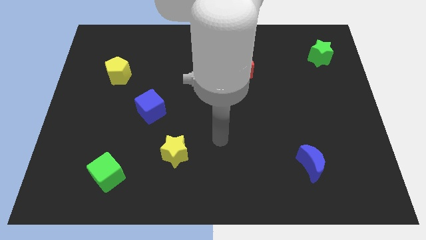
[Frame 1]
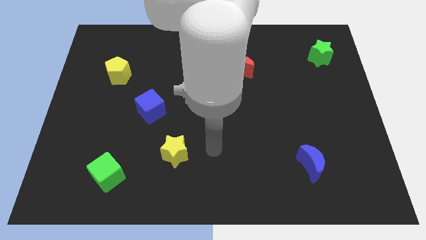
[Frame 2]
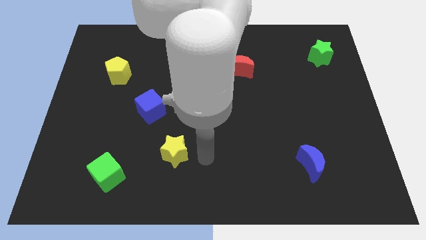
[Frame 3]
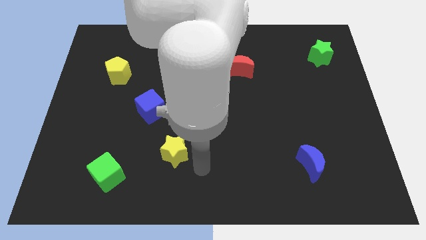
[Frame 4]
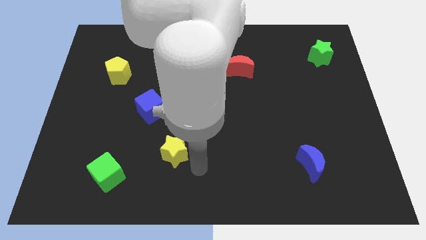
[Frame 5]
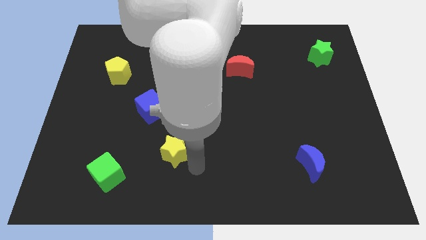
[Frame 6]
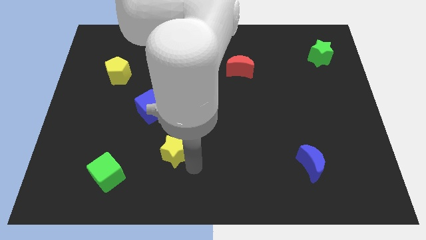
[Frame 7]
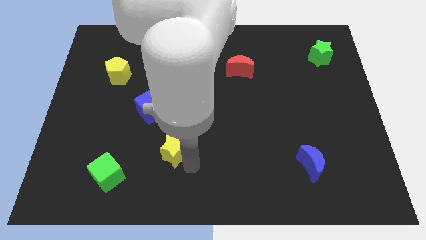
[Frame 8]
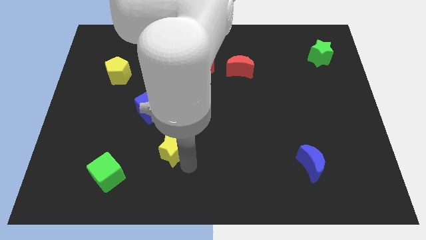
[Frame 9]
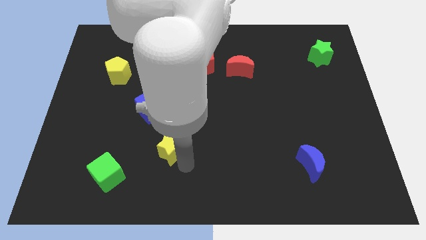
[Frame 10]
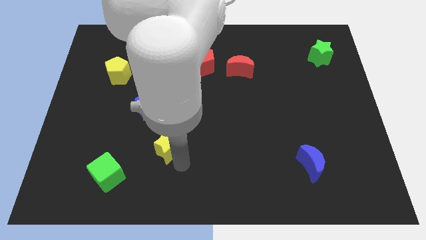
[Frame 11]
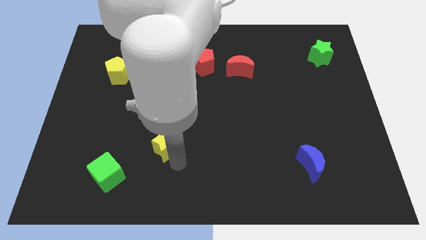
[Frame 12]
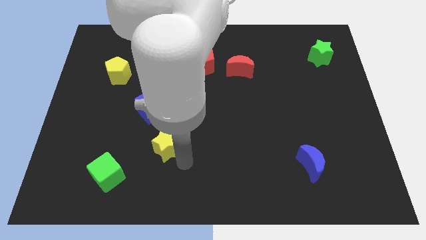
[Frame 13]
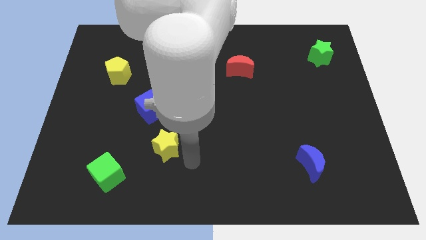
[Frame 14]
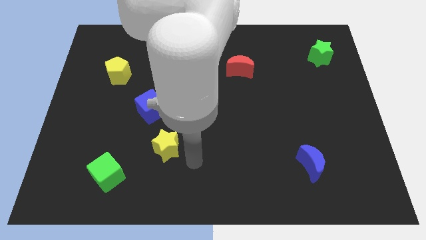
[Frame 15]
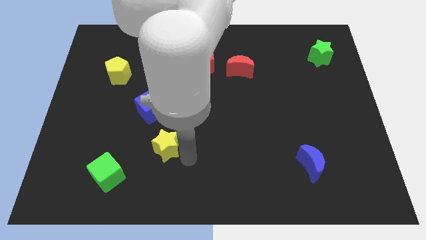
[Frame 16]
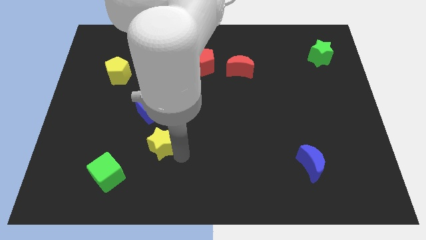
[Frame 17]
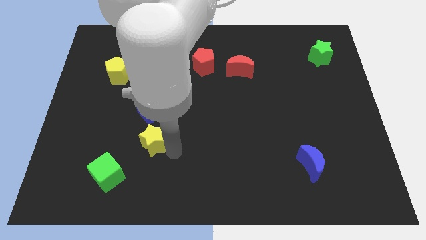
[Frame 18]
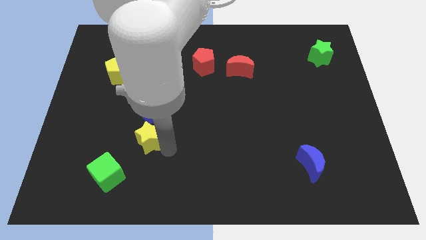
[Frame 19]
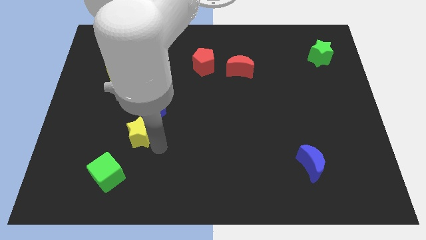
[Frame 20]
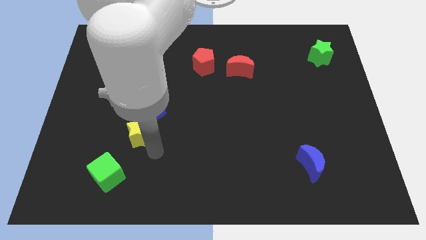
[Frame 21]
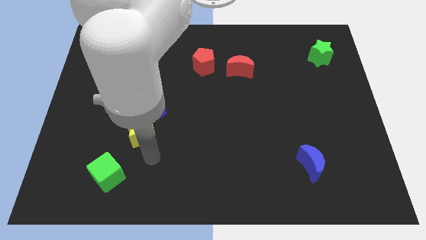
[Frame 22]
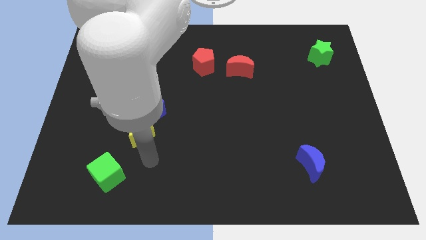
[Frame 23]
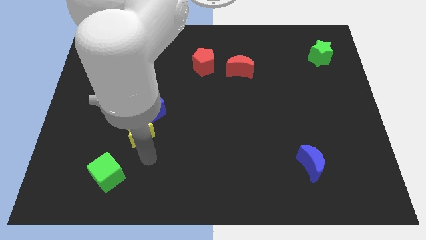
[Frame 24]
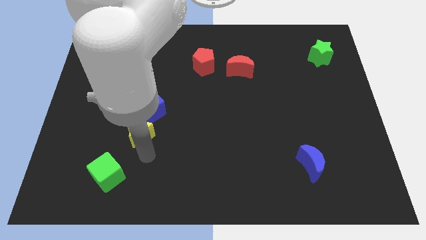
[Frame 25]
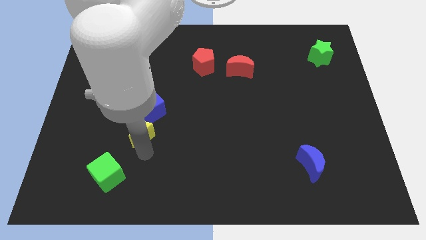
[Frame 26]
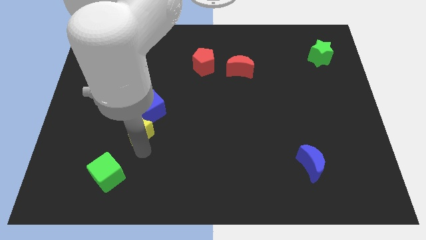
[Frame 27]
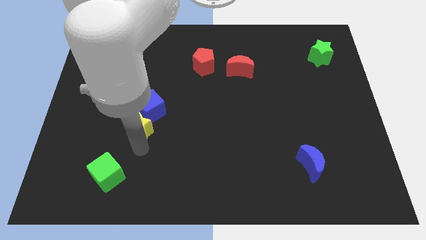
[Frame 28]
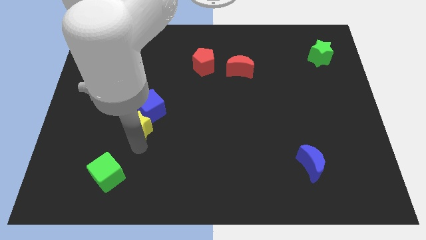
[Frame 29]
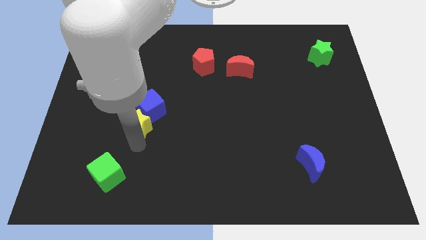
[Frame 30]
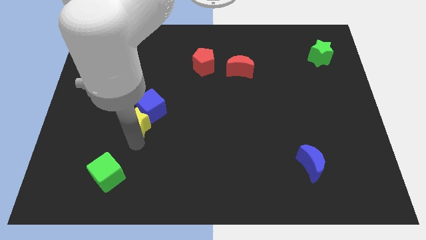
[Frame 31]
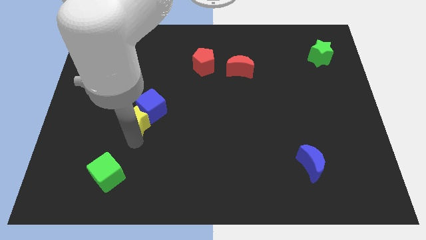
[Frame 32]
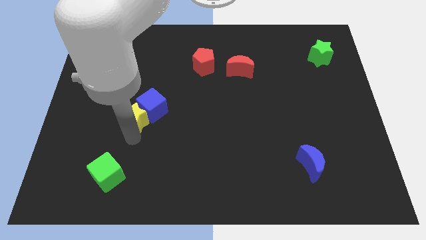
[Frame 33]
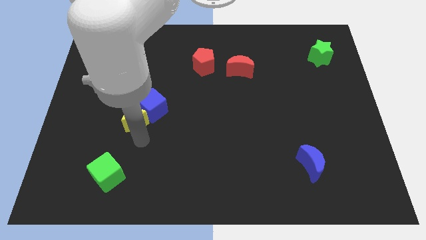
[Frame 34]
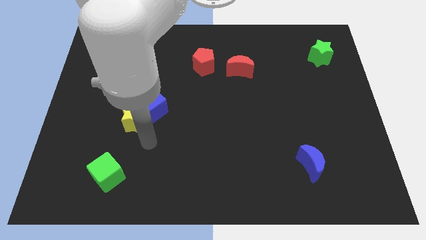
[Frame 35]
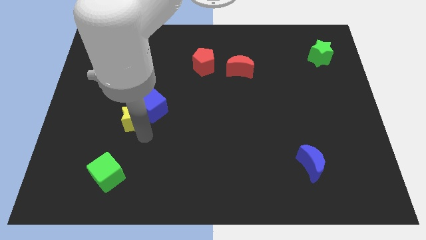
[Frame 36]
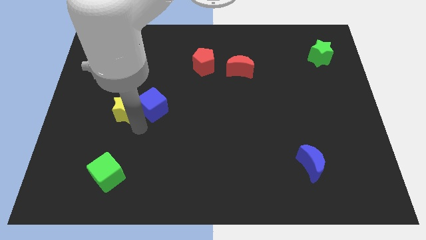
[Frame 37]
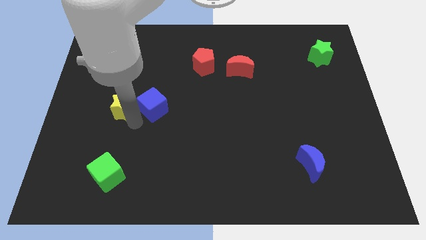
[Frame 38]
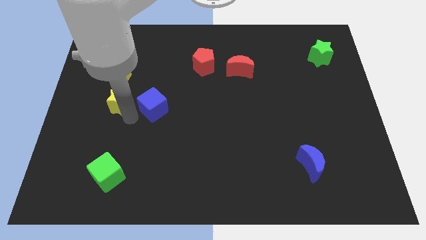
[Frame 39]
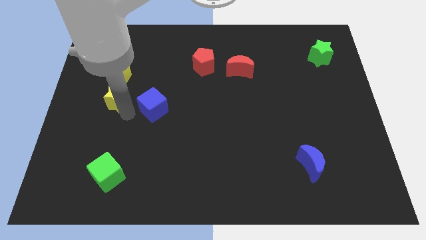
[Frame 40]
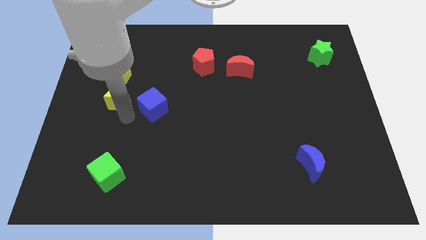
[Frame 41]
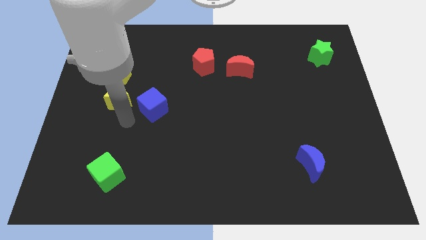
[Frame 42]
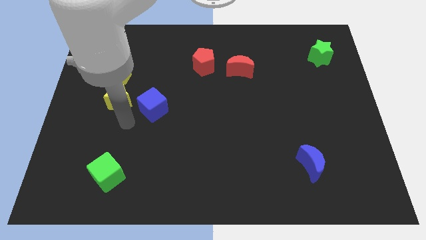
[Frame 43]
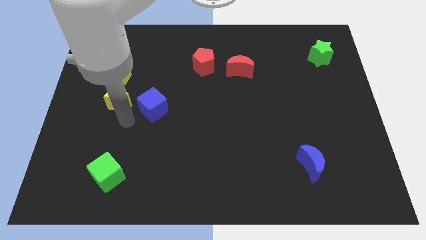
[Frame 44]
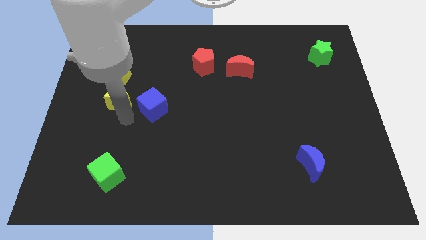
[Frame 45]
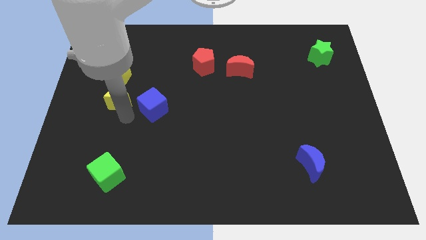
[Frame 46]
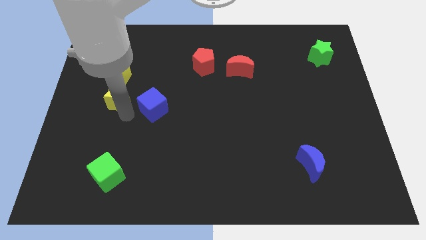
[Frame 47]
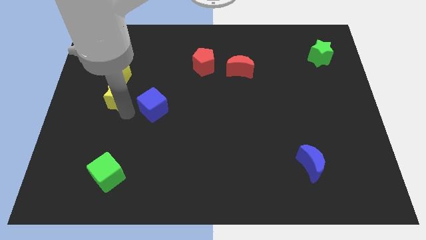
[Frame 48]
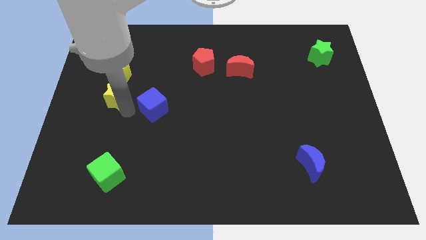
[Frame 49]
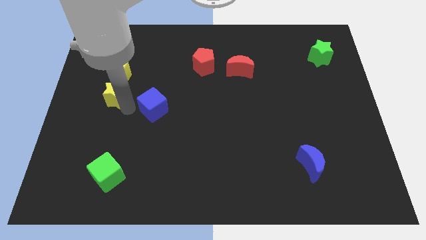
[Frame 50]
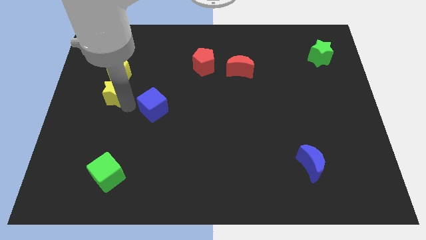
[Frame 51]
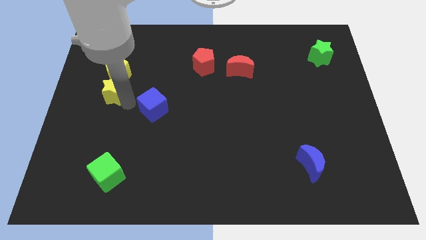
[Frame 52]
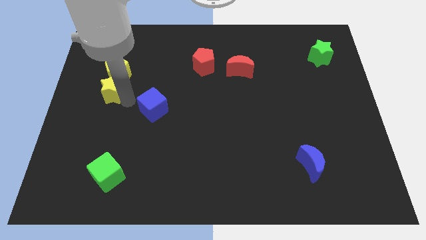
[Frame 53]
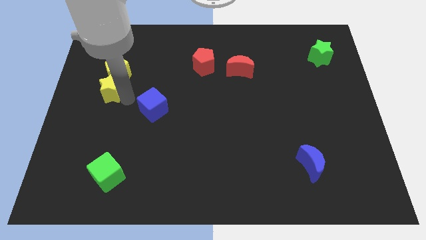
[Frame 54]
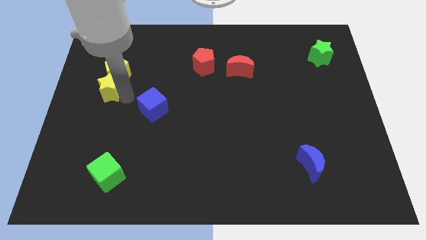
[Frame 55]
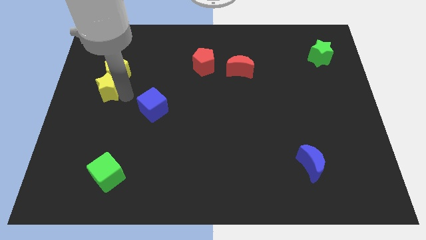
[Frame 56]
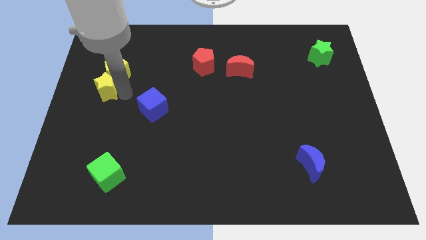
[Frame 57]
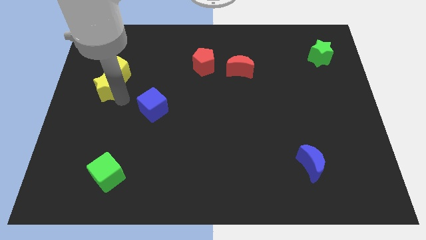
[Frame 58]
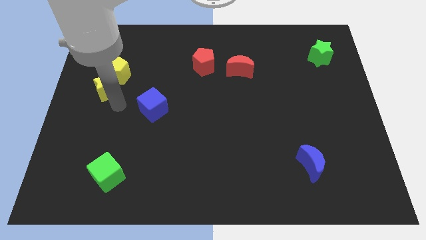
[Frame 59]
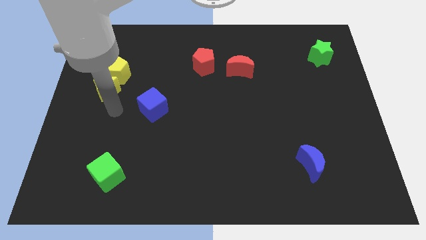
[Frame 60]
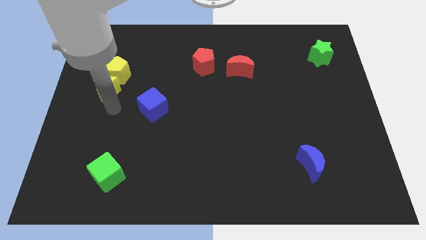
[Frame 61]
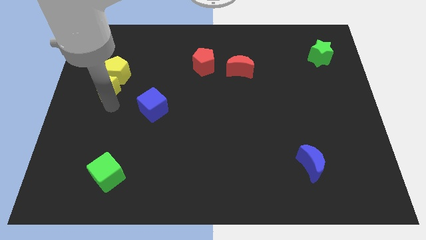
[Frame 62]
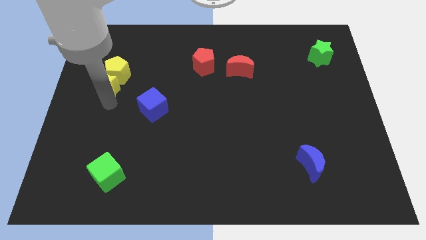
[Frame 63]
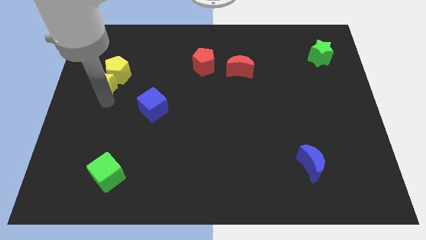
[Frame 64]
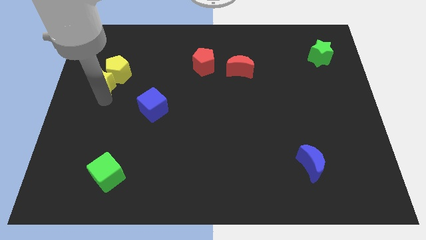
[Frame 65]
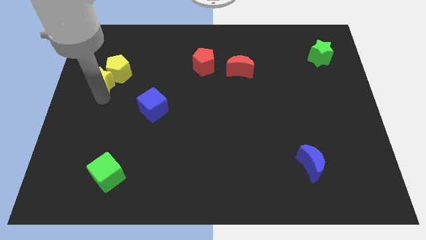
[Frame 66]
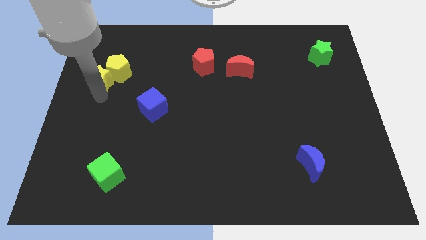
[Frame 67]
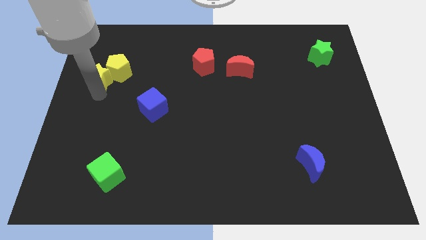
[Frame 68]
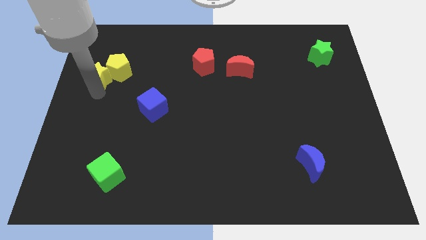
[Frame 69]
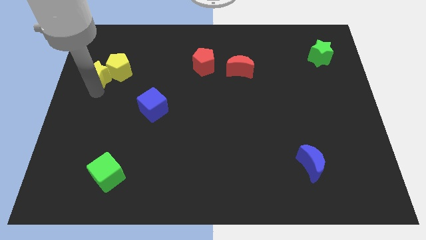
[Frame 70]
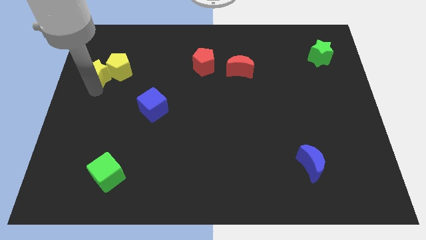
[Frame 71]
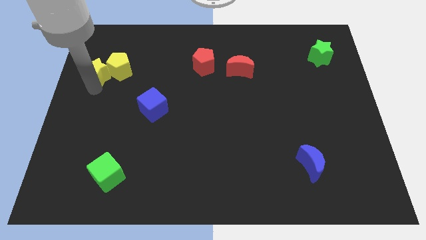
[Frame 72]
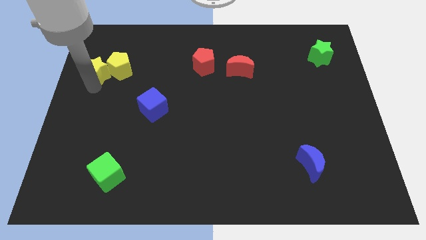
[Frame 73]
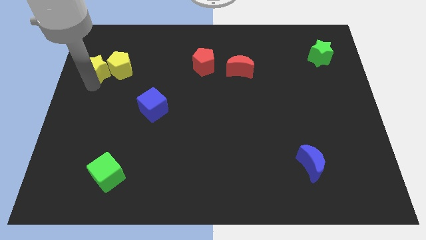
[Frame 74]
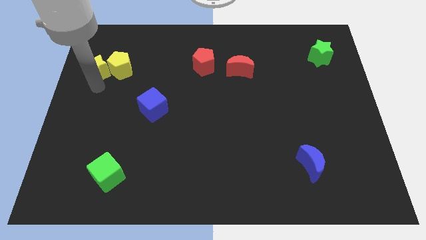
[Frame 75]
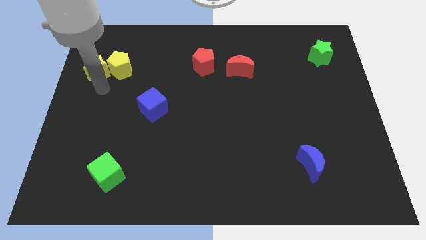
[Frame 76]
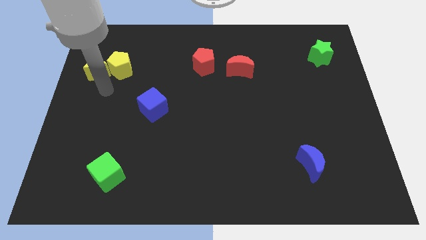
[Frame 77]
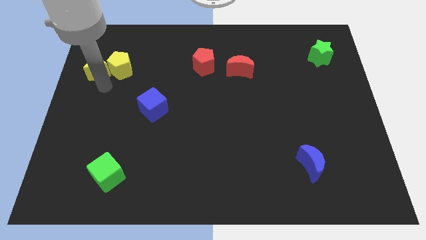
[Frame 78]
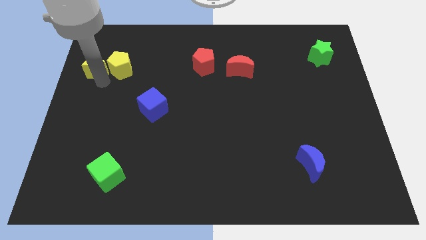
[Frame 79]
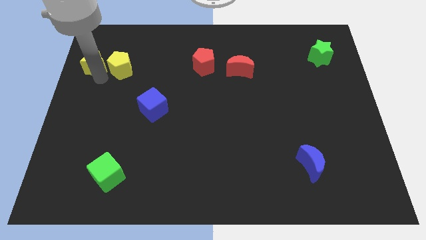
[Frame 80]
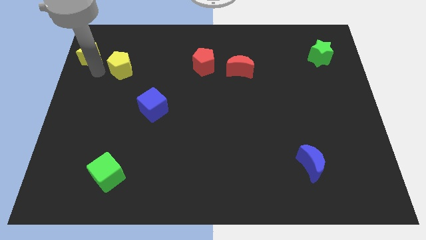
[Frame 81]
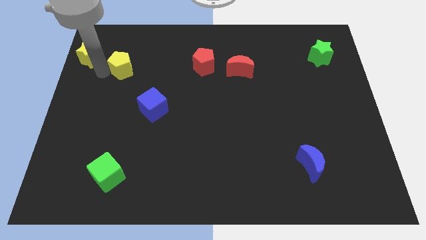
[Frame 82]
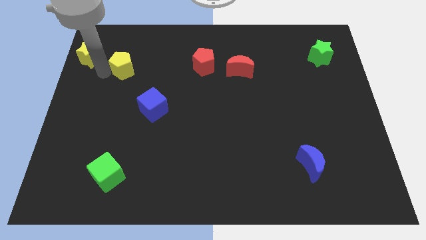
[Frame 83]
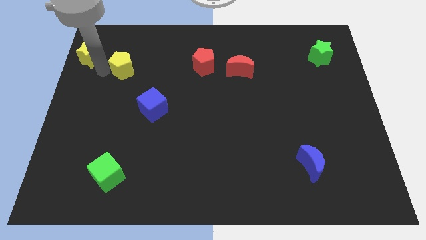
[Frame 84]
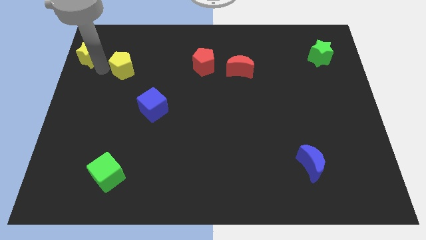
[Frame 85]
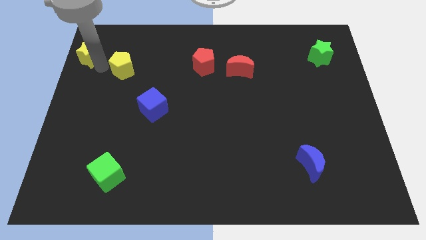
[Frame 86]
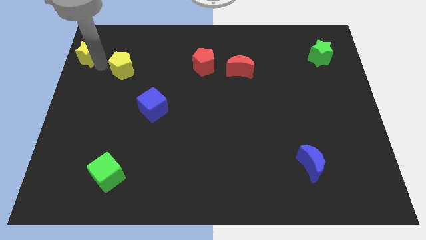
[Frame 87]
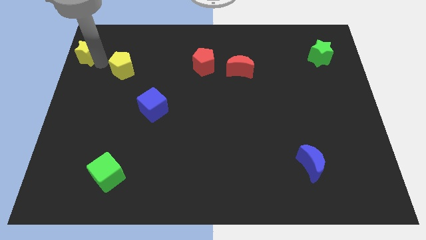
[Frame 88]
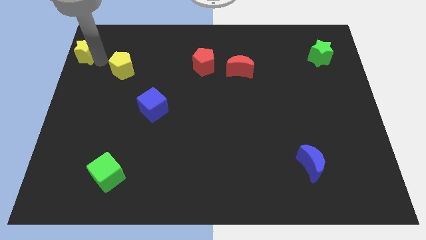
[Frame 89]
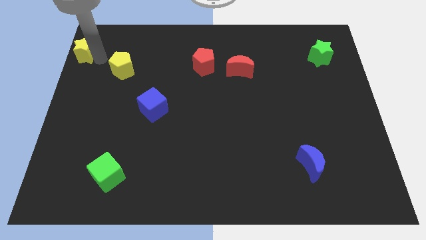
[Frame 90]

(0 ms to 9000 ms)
push the yellow star to the upper left corner
